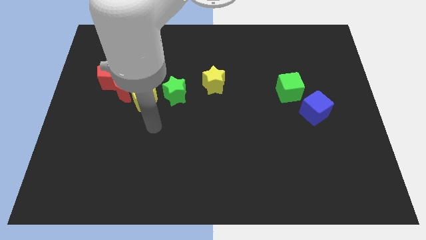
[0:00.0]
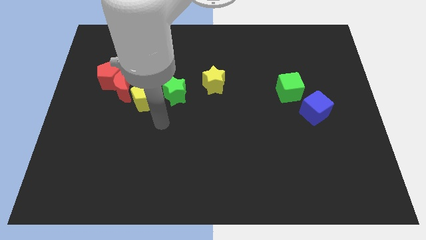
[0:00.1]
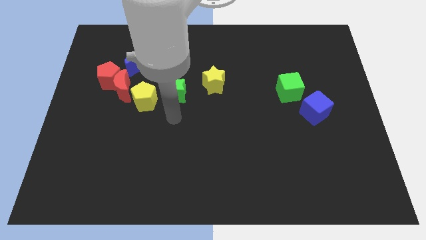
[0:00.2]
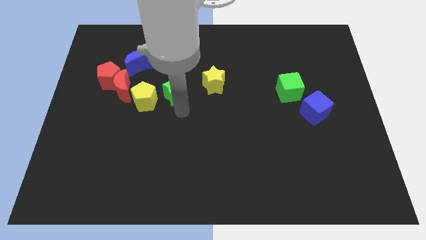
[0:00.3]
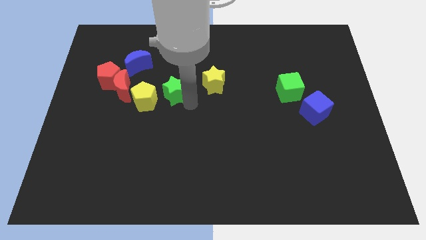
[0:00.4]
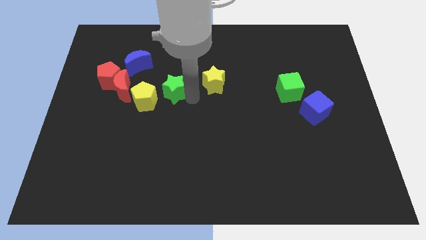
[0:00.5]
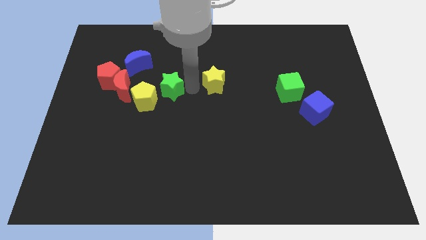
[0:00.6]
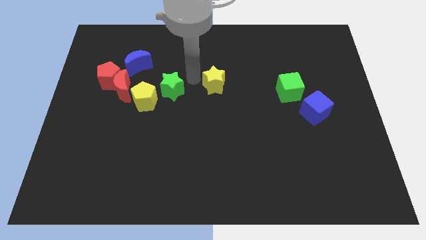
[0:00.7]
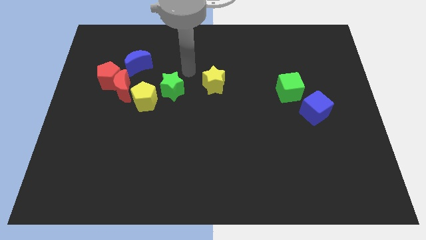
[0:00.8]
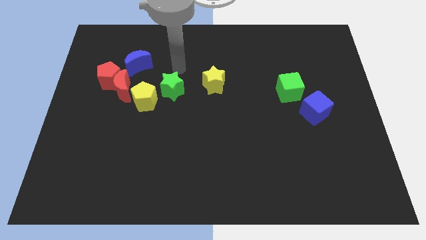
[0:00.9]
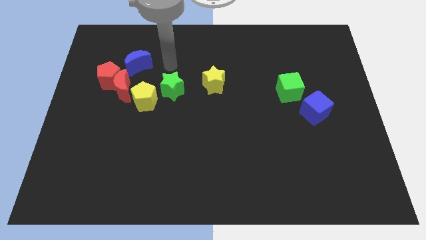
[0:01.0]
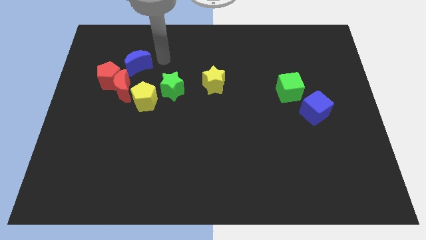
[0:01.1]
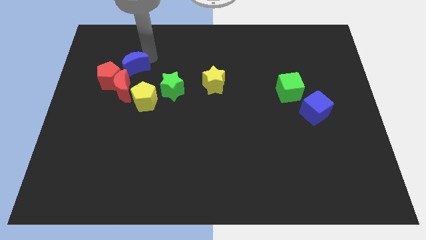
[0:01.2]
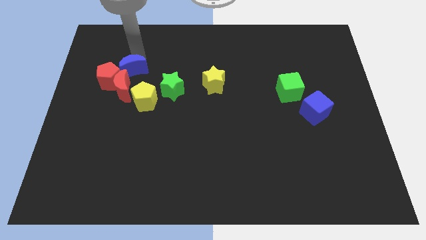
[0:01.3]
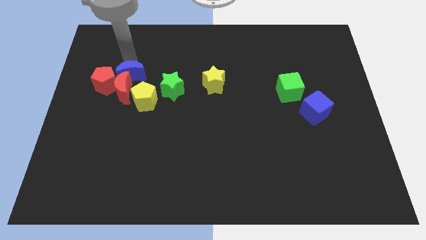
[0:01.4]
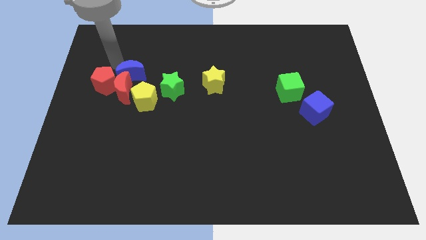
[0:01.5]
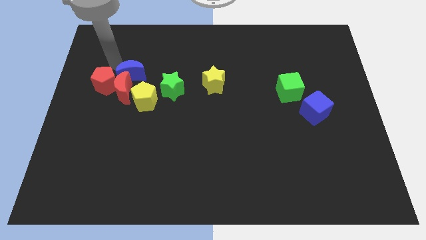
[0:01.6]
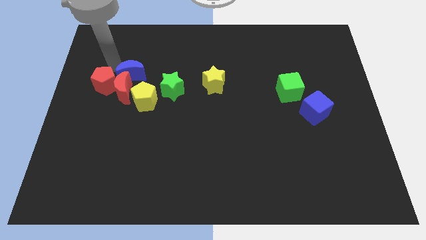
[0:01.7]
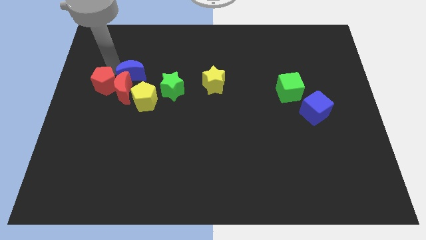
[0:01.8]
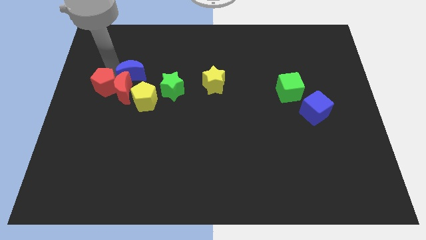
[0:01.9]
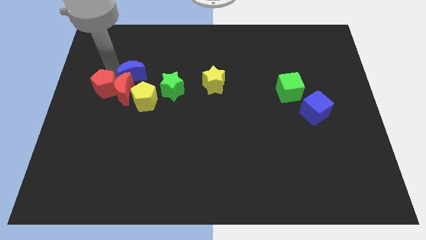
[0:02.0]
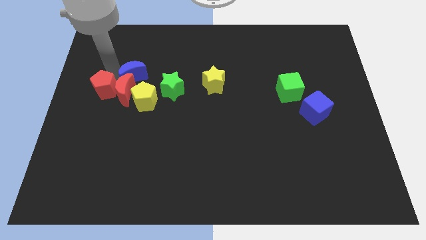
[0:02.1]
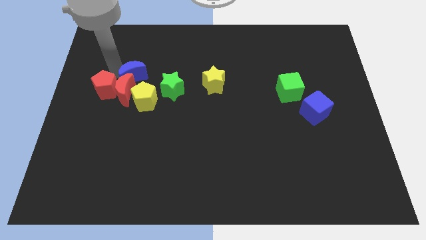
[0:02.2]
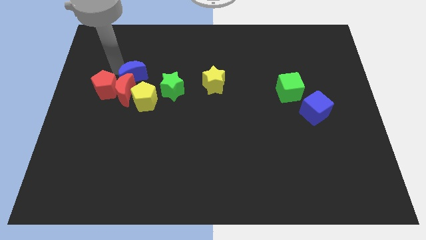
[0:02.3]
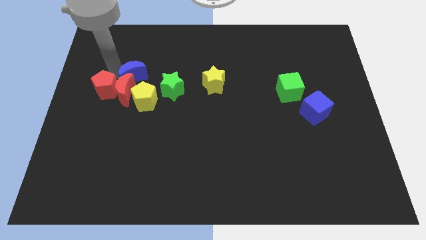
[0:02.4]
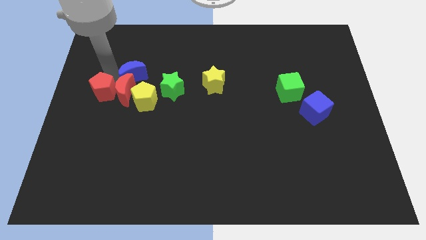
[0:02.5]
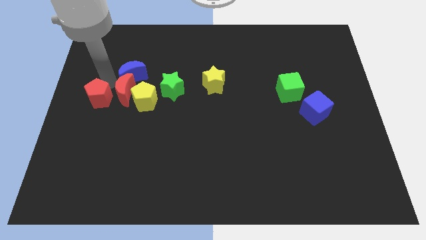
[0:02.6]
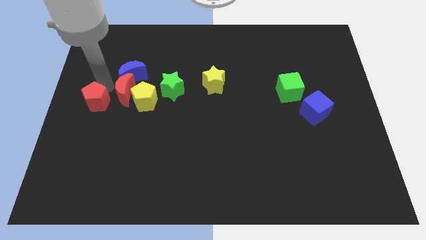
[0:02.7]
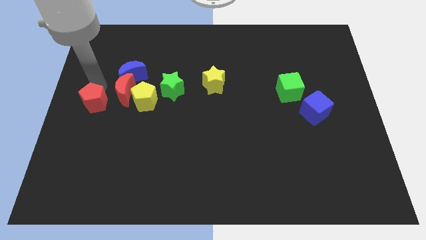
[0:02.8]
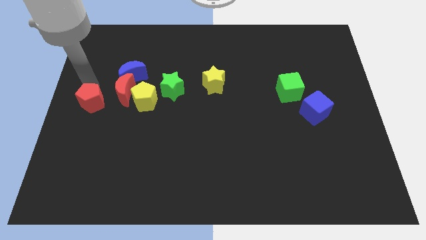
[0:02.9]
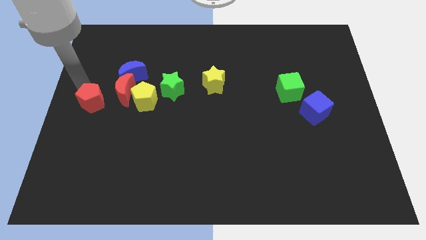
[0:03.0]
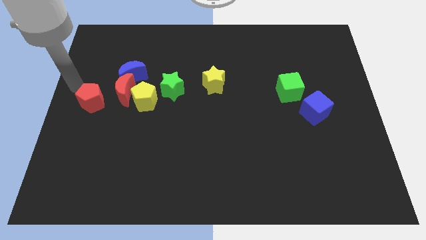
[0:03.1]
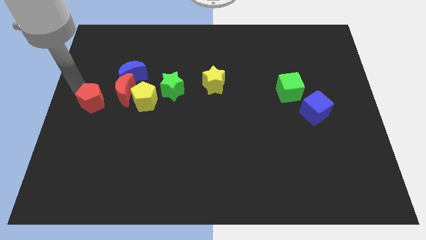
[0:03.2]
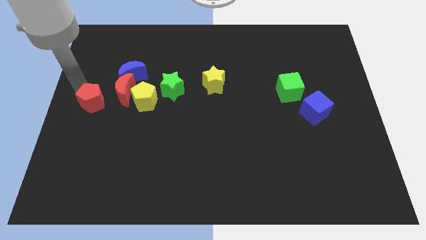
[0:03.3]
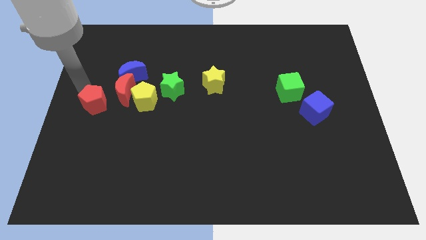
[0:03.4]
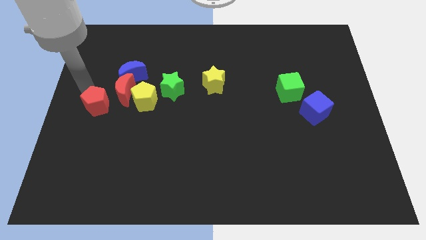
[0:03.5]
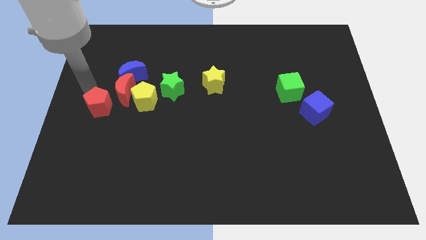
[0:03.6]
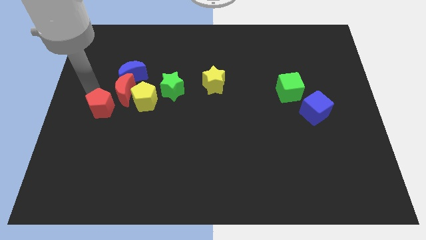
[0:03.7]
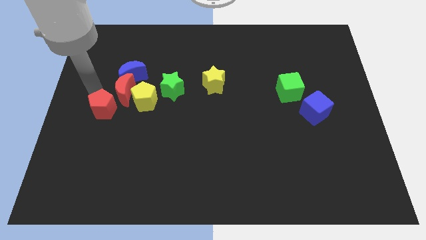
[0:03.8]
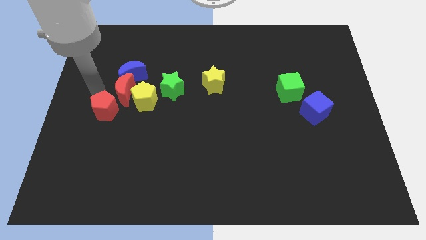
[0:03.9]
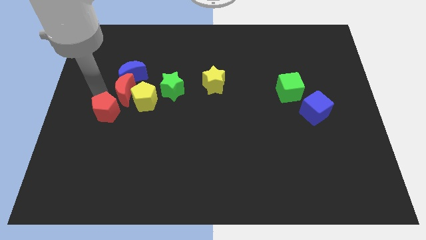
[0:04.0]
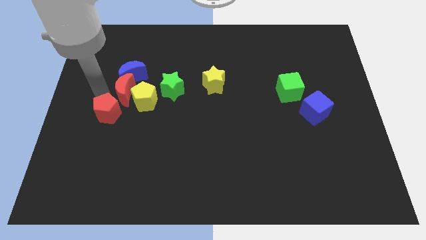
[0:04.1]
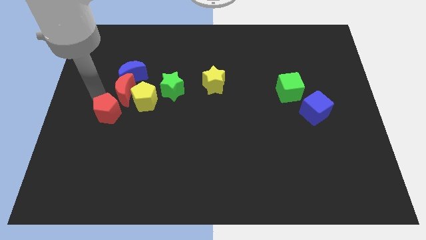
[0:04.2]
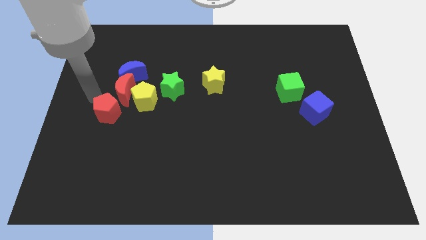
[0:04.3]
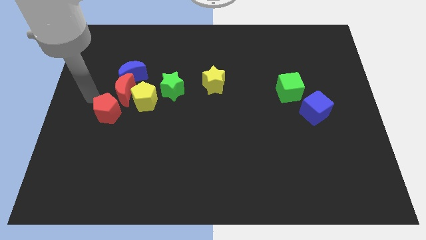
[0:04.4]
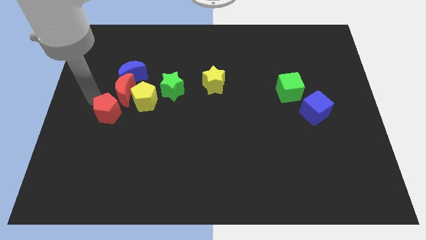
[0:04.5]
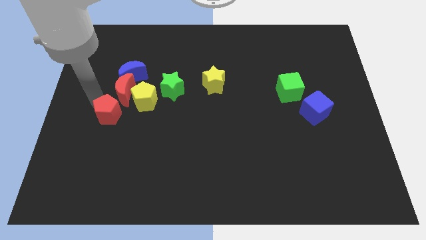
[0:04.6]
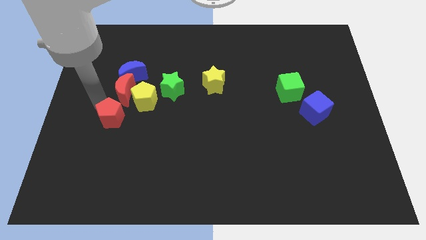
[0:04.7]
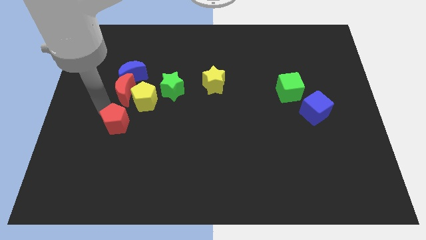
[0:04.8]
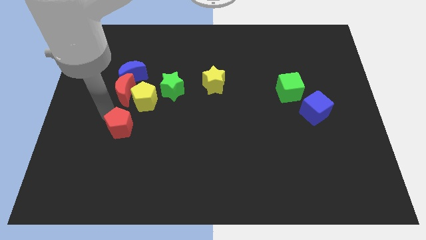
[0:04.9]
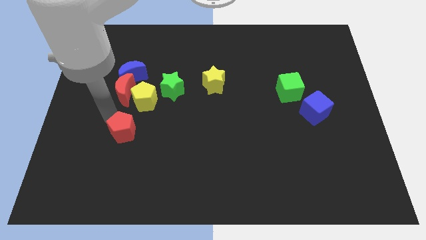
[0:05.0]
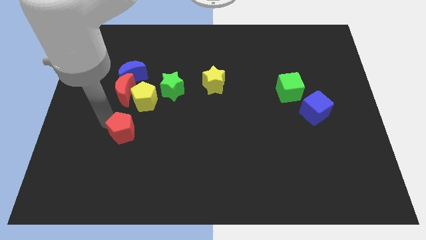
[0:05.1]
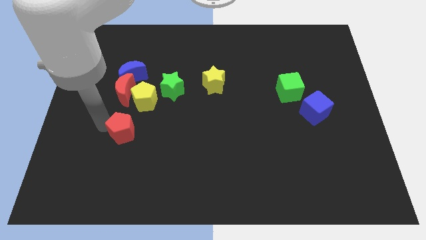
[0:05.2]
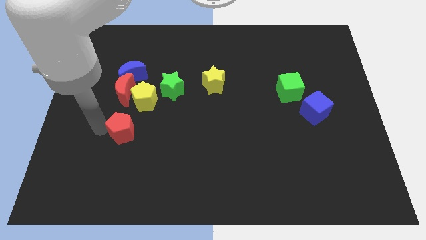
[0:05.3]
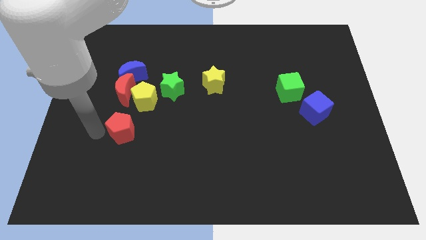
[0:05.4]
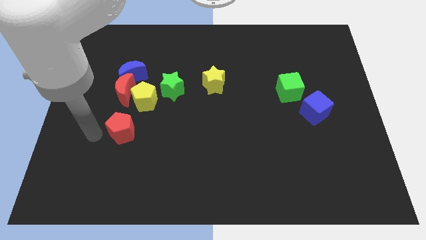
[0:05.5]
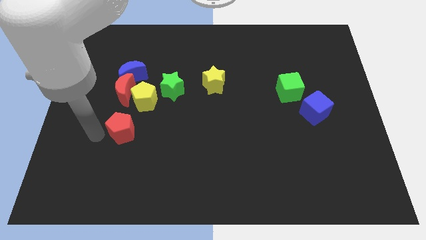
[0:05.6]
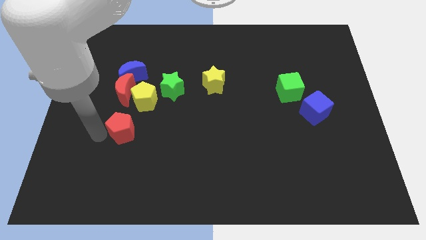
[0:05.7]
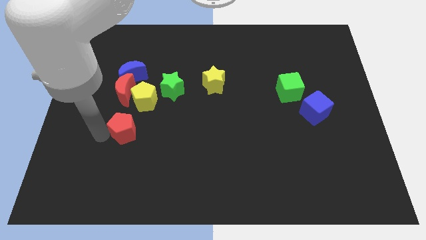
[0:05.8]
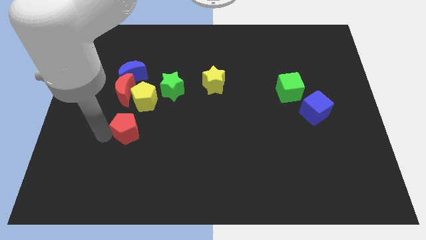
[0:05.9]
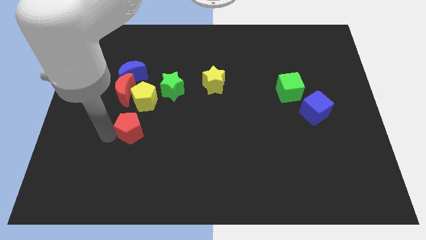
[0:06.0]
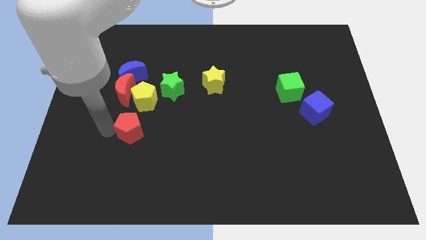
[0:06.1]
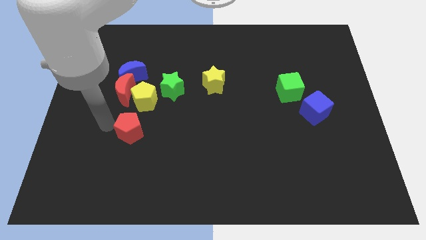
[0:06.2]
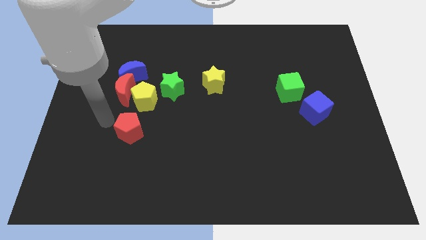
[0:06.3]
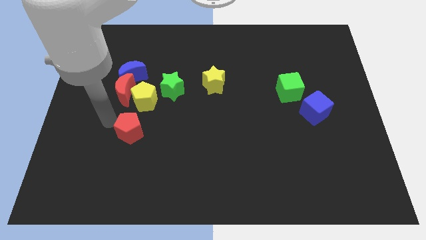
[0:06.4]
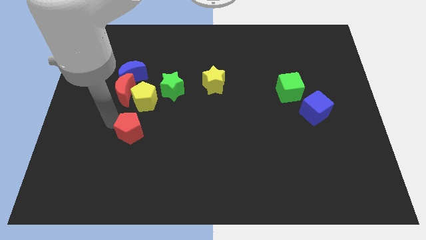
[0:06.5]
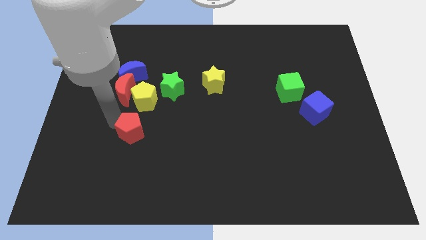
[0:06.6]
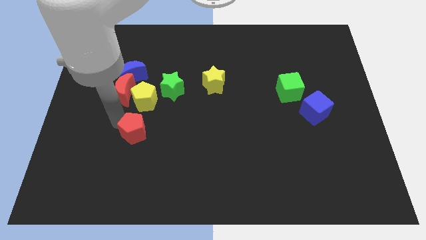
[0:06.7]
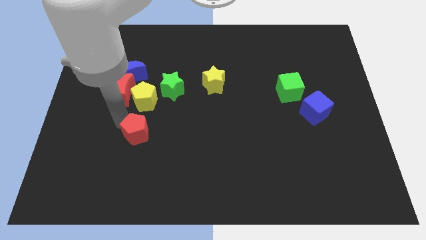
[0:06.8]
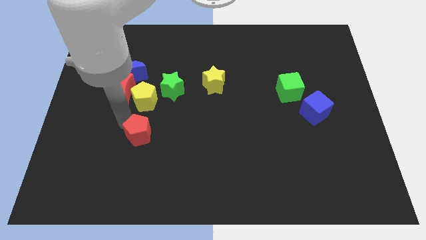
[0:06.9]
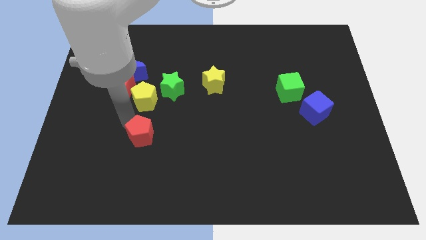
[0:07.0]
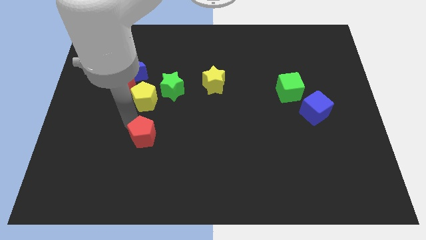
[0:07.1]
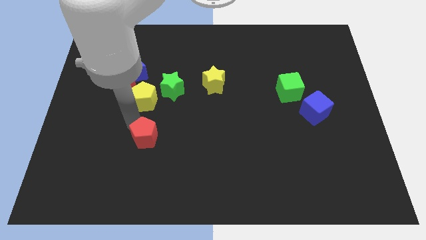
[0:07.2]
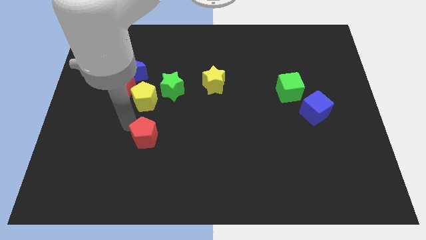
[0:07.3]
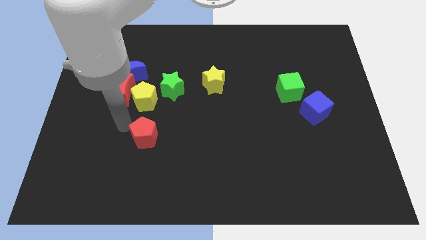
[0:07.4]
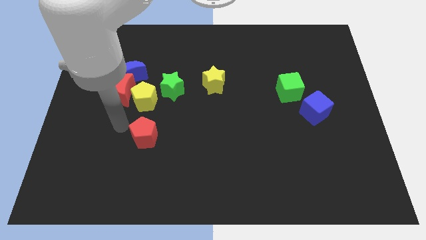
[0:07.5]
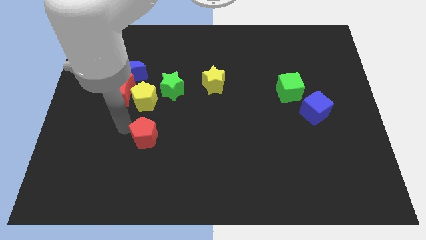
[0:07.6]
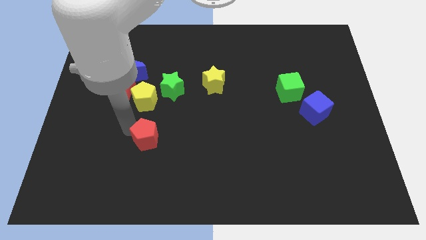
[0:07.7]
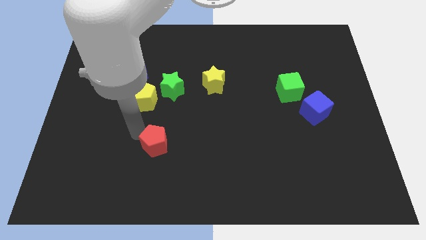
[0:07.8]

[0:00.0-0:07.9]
push the red pentagon down and to the right
